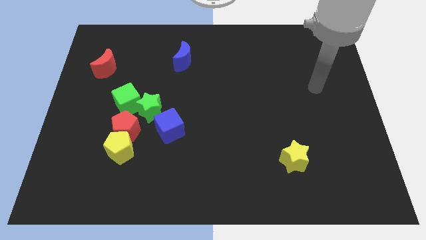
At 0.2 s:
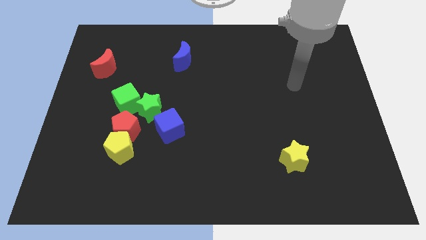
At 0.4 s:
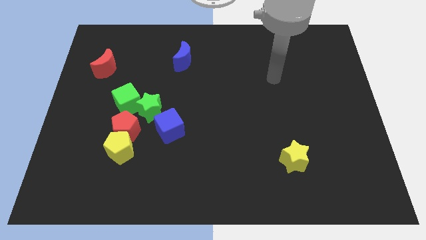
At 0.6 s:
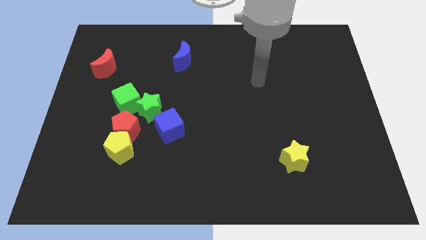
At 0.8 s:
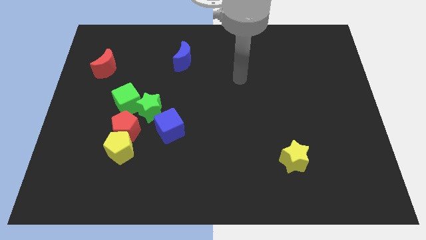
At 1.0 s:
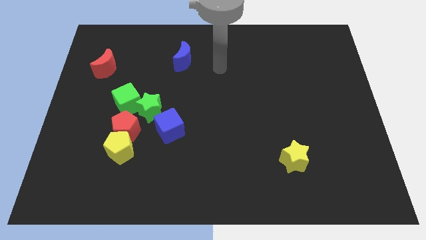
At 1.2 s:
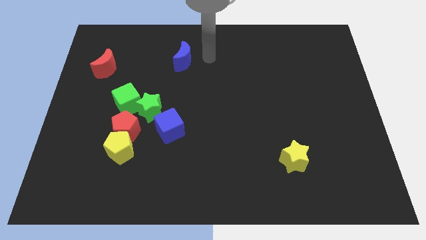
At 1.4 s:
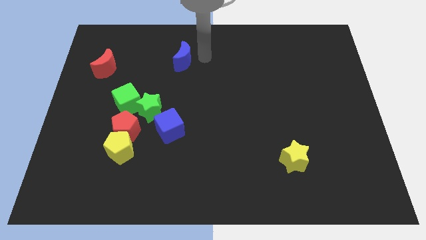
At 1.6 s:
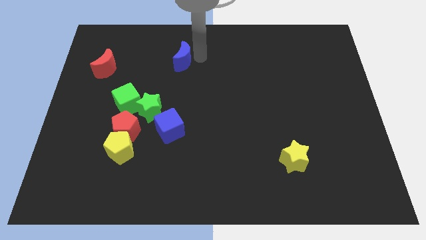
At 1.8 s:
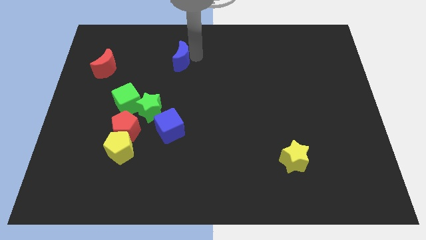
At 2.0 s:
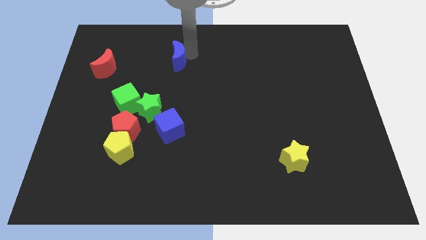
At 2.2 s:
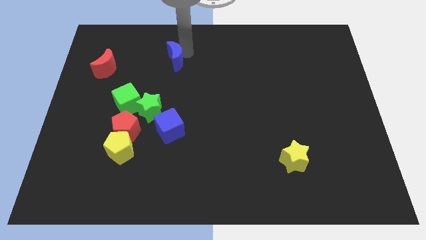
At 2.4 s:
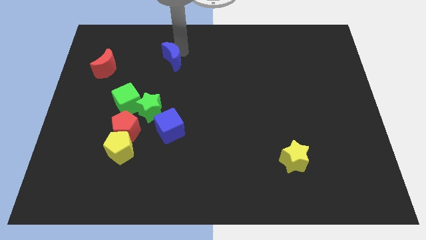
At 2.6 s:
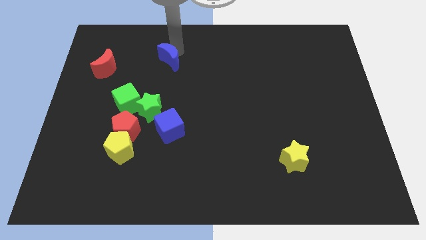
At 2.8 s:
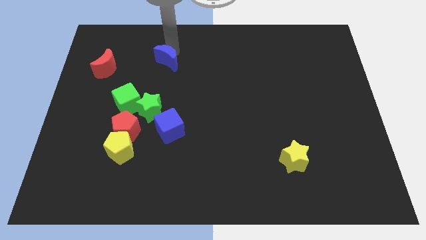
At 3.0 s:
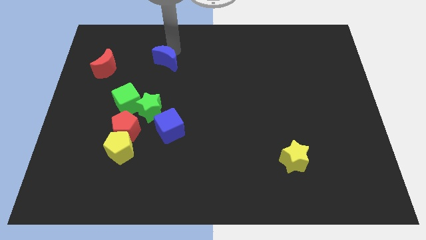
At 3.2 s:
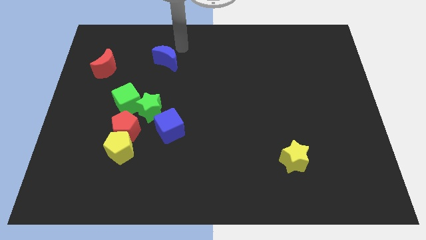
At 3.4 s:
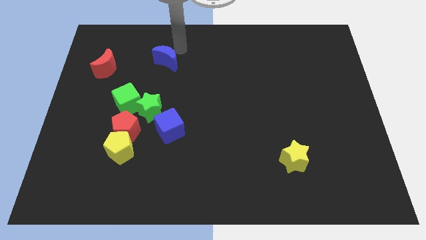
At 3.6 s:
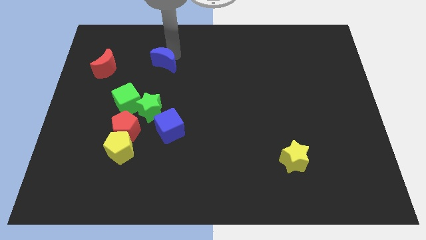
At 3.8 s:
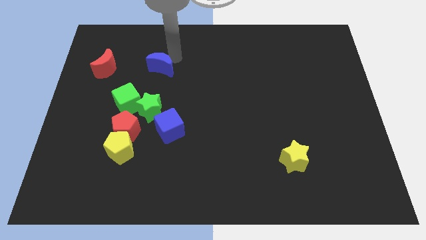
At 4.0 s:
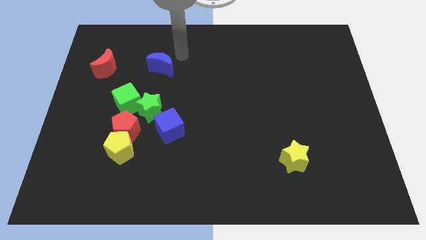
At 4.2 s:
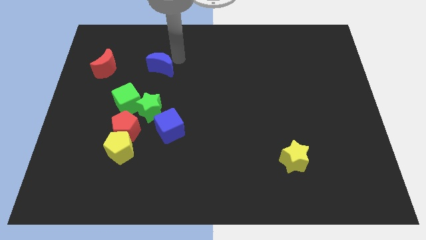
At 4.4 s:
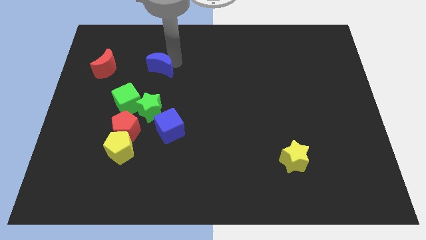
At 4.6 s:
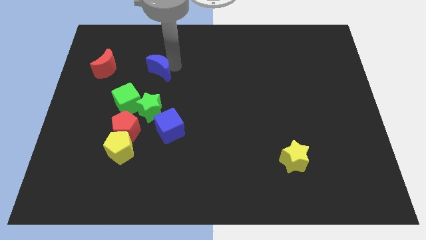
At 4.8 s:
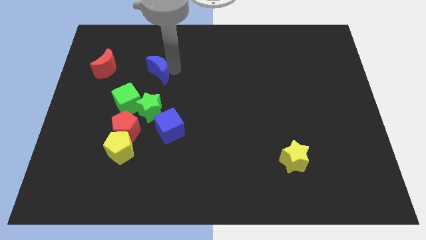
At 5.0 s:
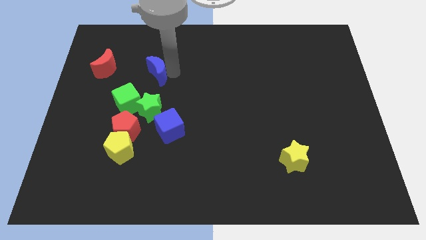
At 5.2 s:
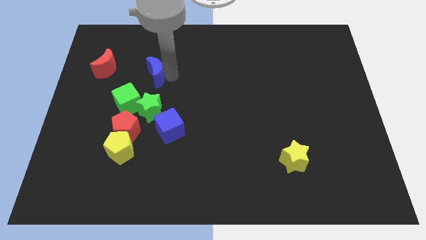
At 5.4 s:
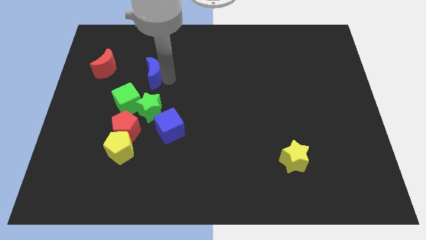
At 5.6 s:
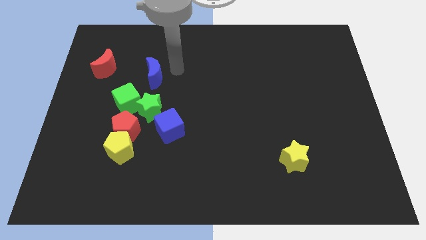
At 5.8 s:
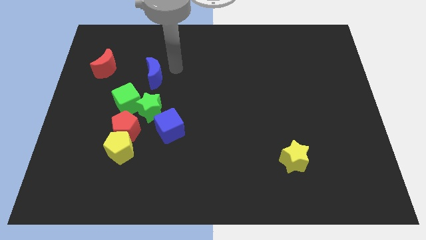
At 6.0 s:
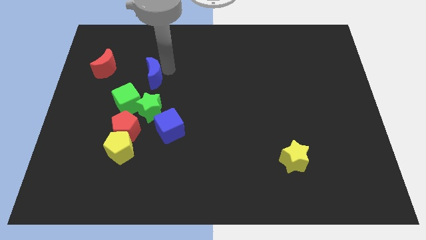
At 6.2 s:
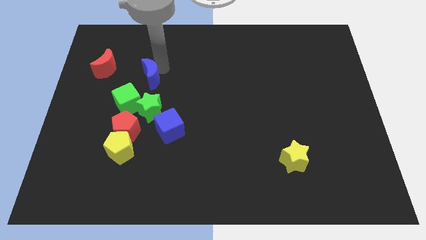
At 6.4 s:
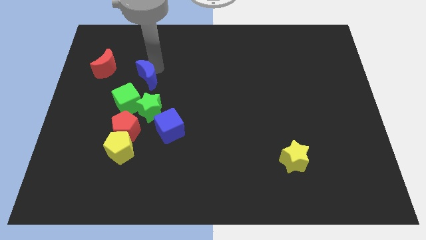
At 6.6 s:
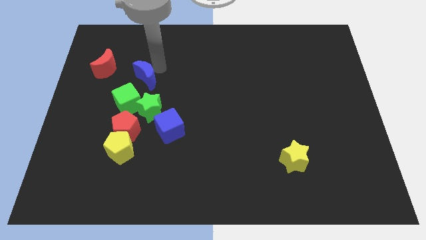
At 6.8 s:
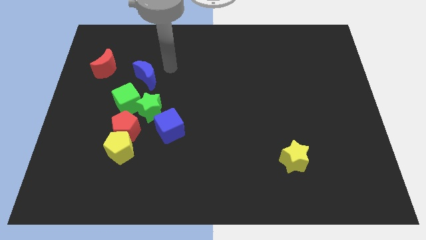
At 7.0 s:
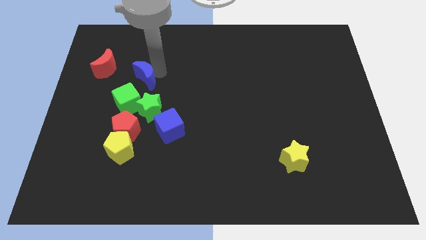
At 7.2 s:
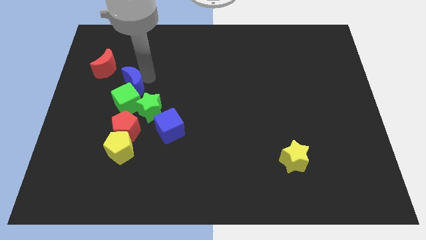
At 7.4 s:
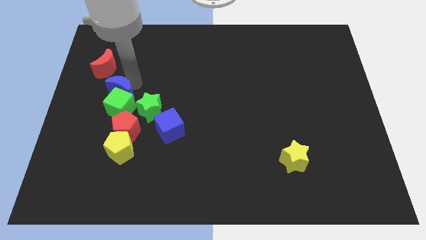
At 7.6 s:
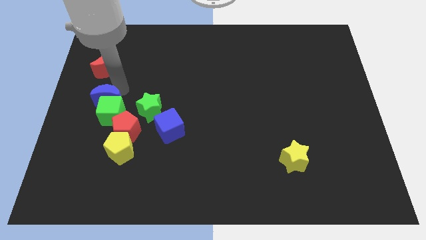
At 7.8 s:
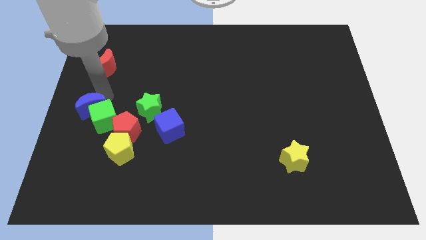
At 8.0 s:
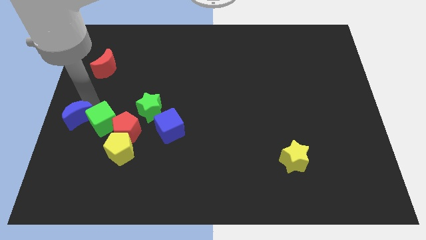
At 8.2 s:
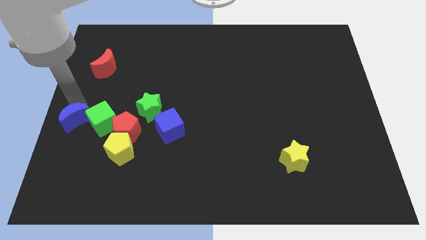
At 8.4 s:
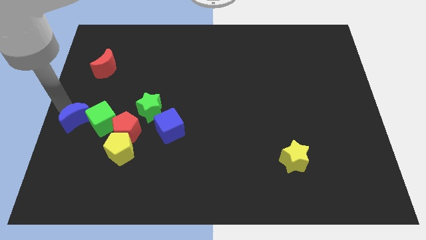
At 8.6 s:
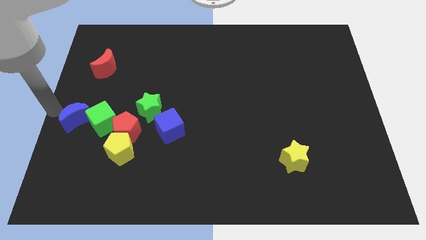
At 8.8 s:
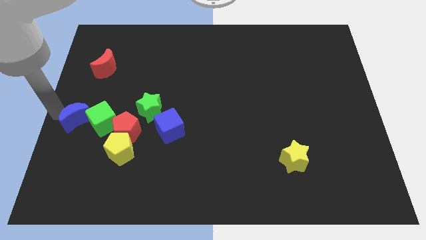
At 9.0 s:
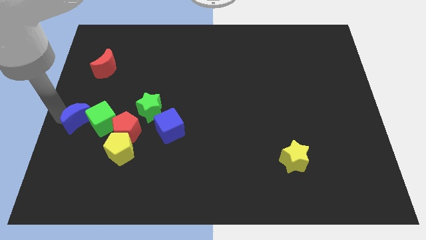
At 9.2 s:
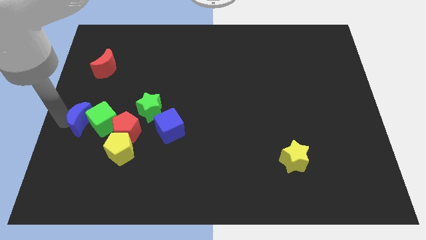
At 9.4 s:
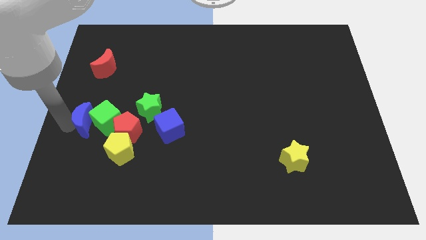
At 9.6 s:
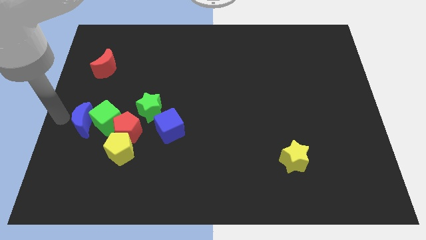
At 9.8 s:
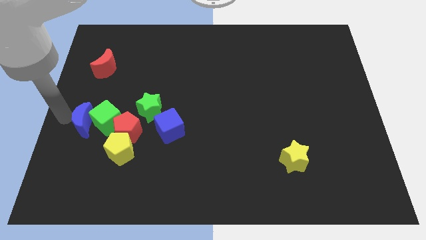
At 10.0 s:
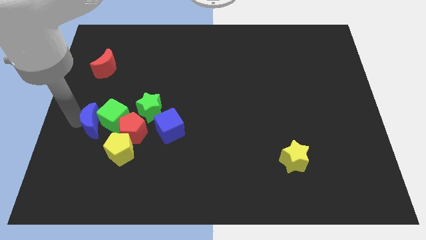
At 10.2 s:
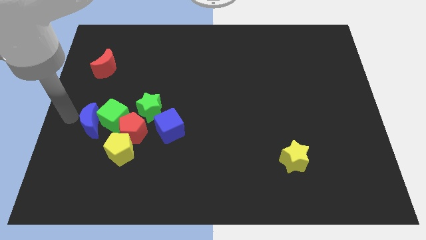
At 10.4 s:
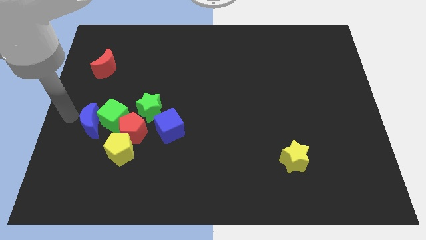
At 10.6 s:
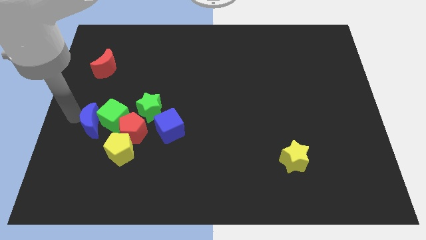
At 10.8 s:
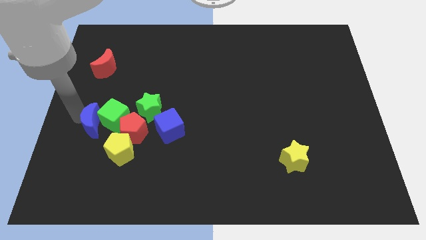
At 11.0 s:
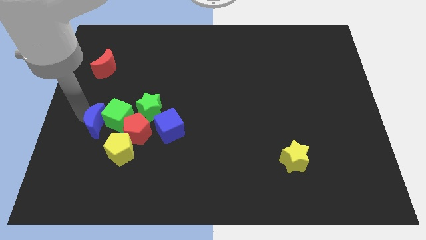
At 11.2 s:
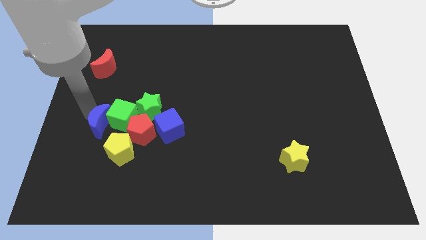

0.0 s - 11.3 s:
put the blue moon left of the blue cube

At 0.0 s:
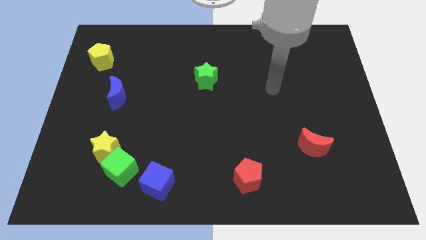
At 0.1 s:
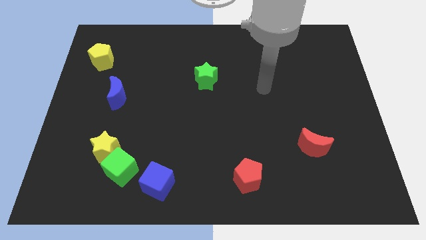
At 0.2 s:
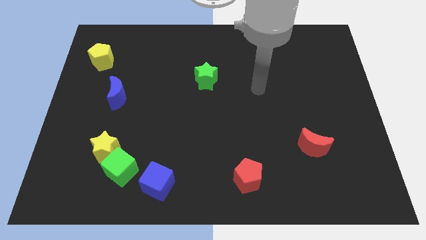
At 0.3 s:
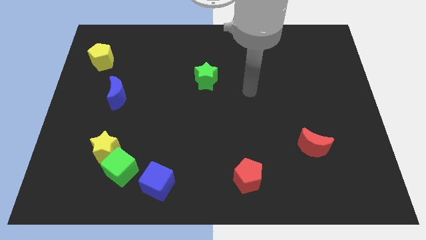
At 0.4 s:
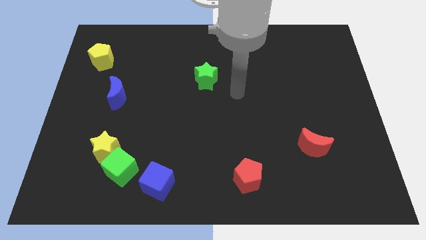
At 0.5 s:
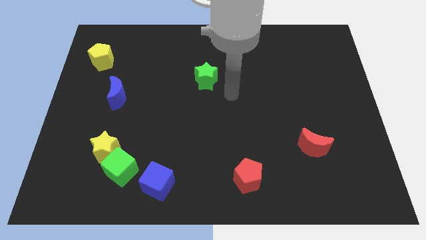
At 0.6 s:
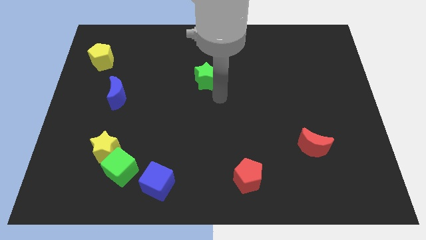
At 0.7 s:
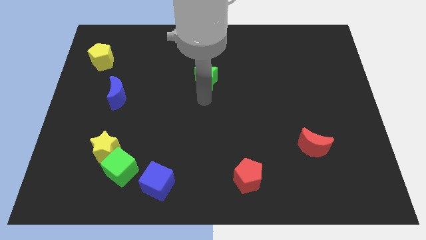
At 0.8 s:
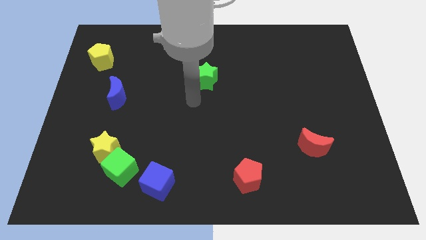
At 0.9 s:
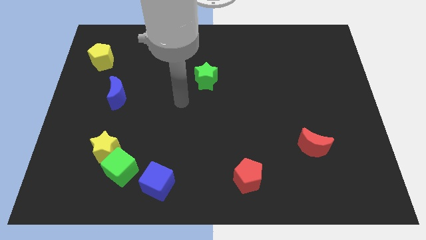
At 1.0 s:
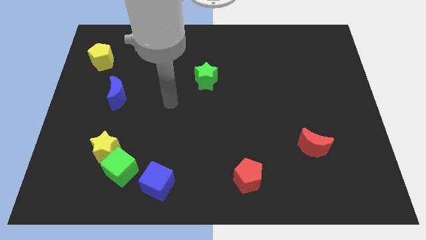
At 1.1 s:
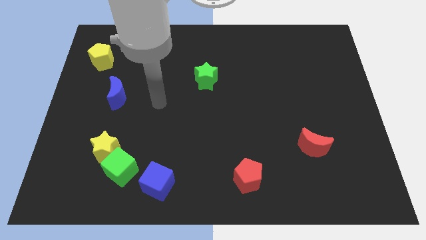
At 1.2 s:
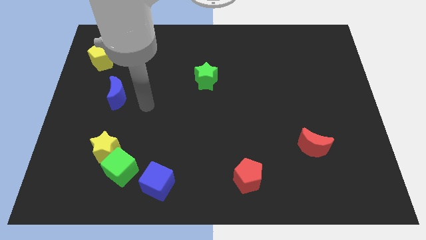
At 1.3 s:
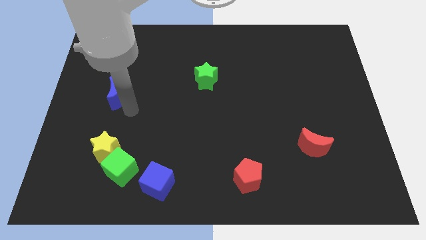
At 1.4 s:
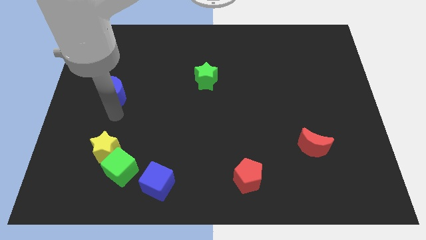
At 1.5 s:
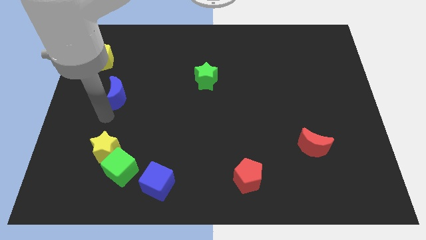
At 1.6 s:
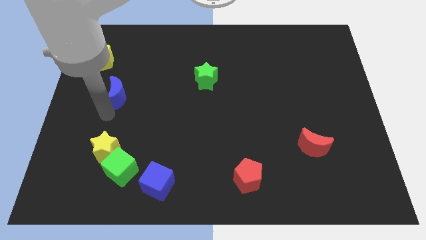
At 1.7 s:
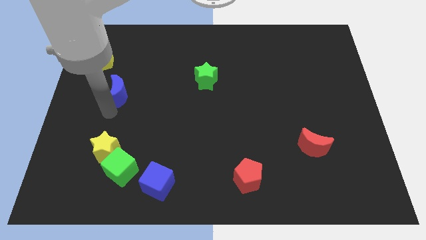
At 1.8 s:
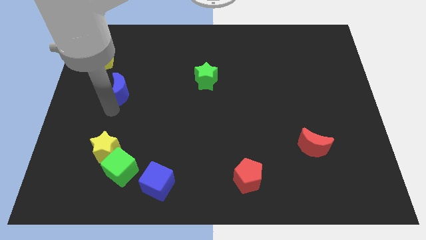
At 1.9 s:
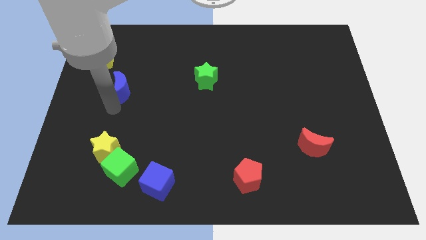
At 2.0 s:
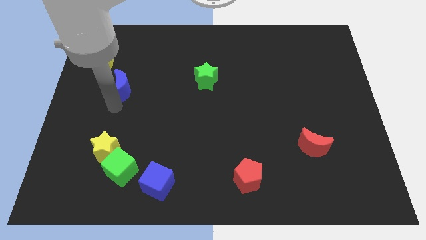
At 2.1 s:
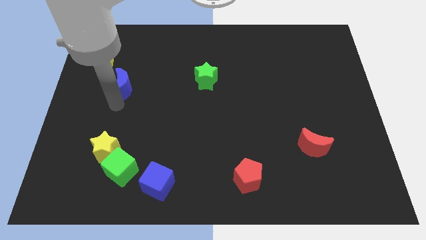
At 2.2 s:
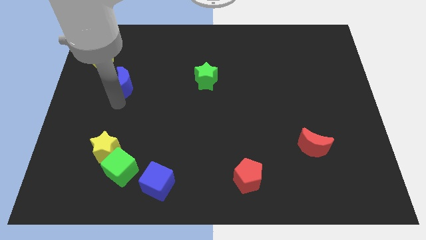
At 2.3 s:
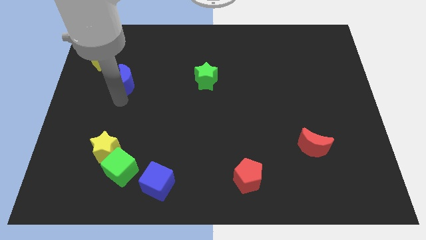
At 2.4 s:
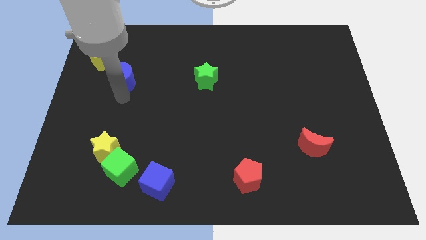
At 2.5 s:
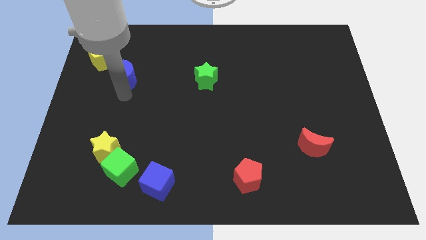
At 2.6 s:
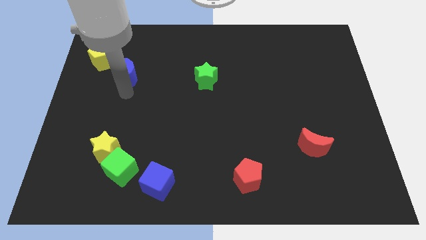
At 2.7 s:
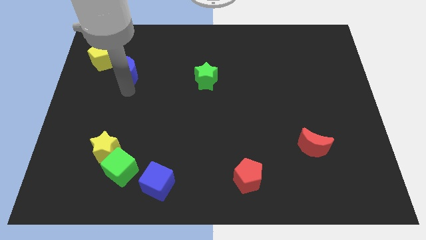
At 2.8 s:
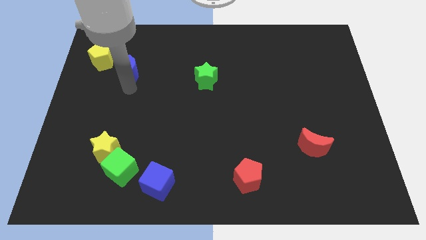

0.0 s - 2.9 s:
push the blue moon right of the yellow pentagon
